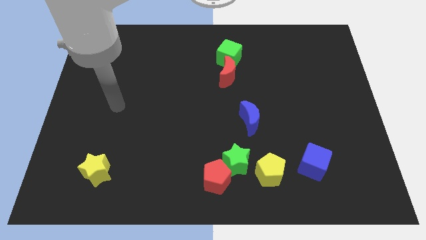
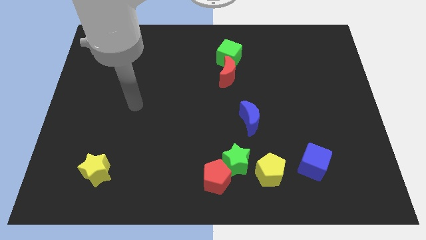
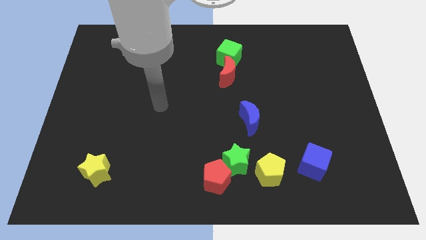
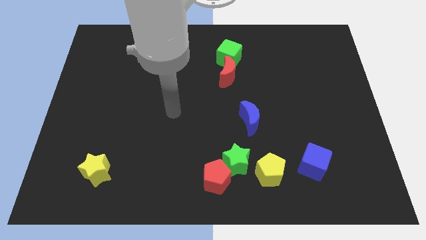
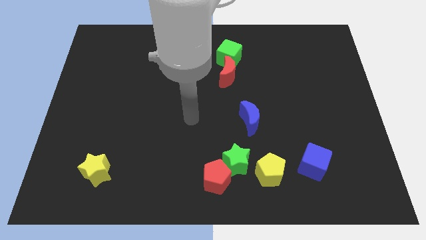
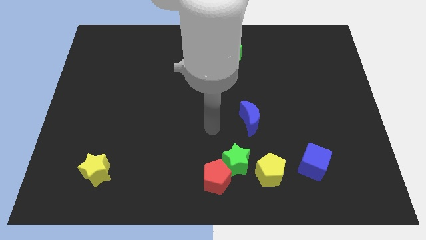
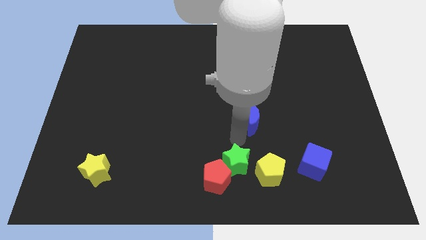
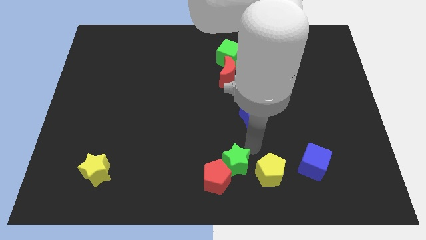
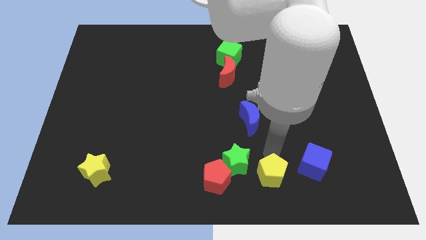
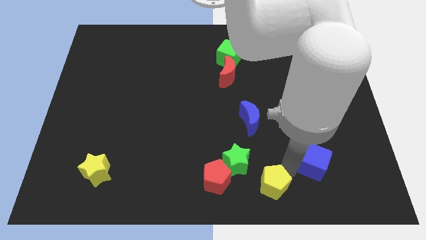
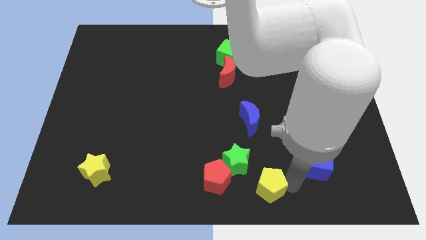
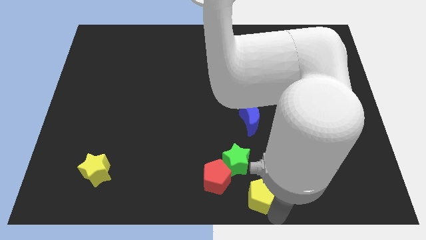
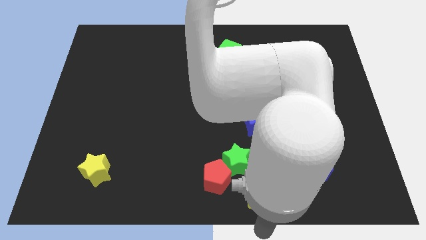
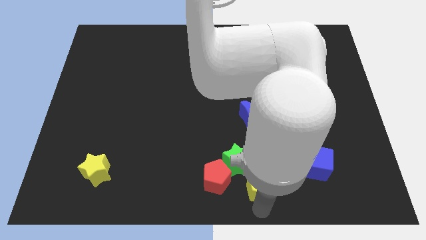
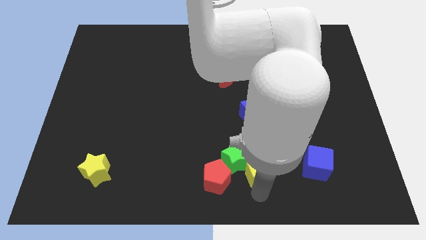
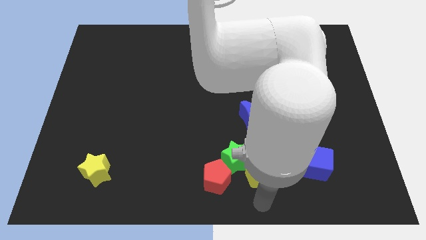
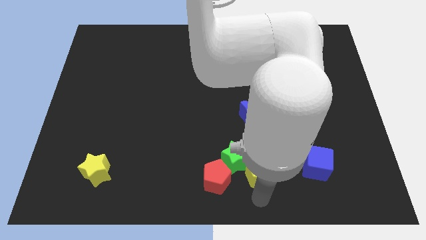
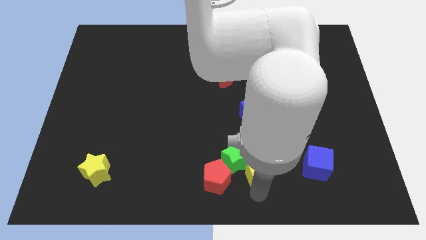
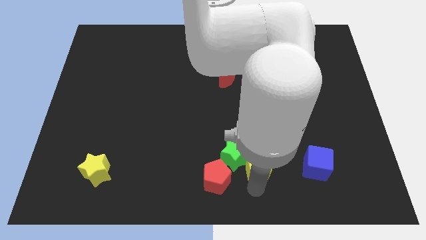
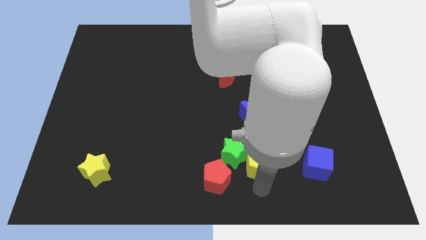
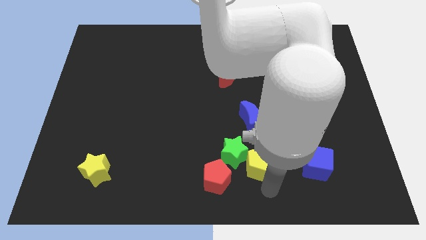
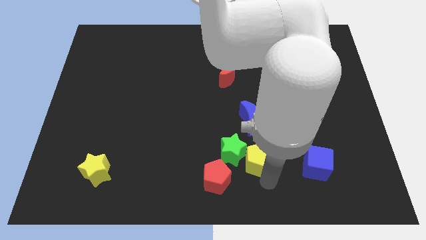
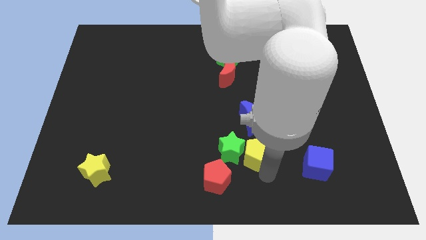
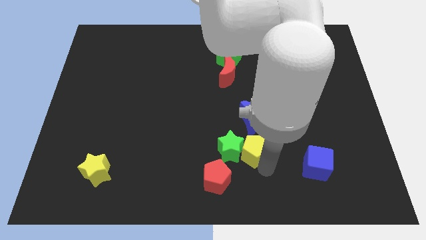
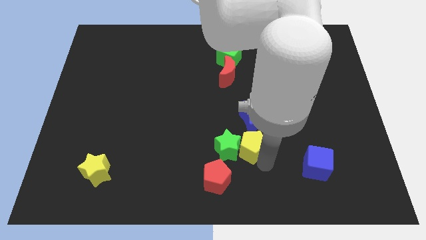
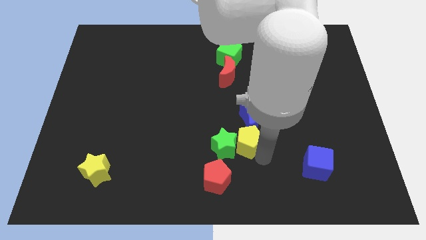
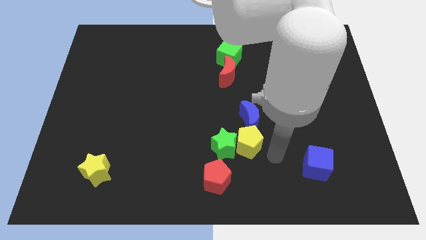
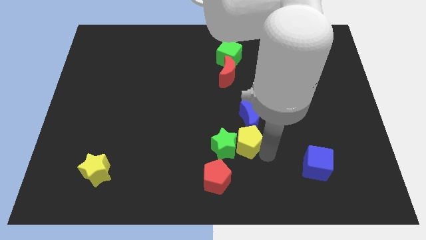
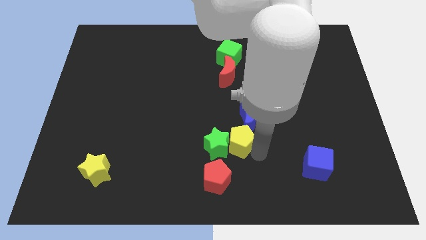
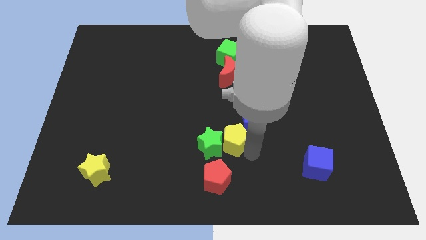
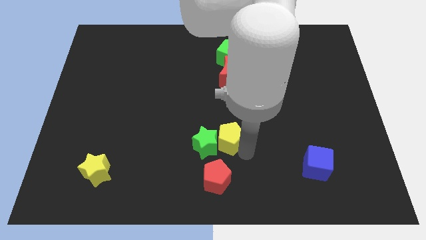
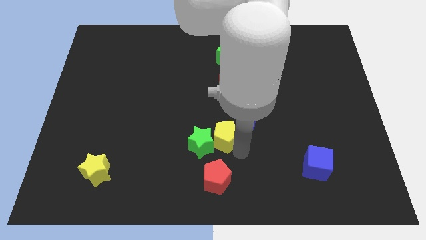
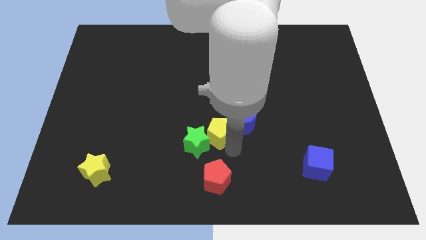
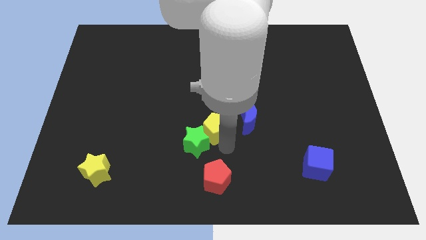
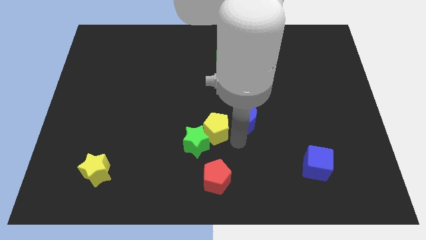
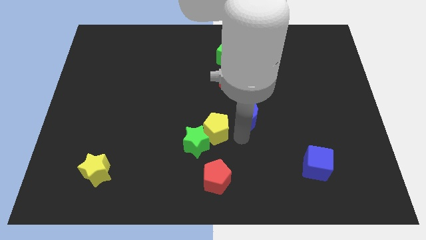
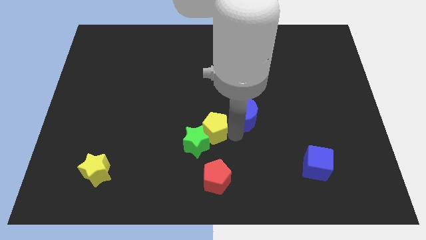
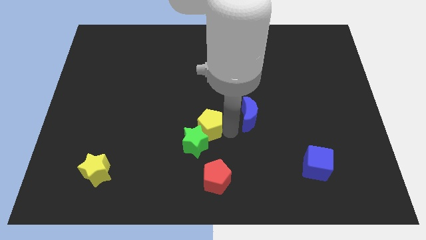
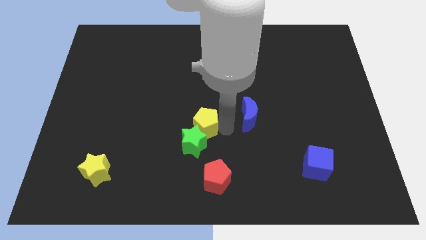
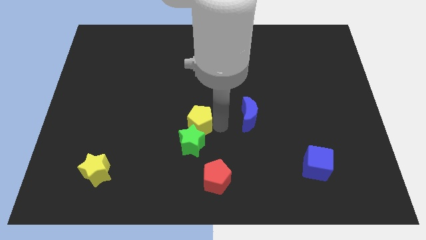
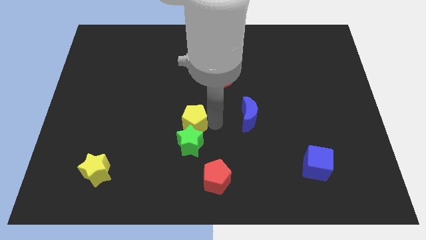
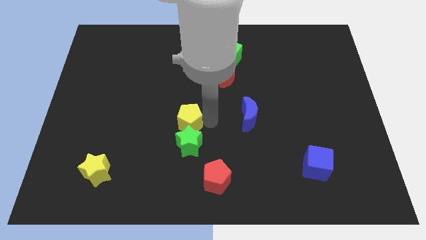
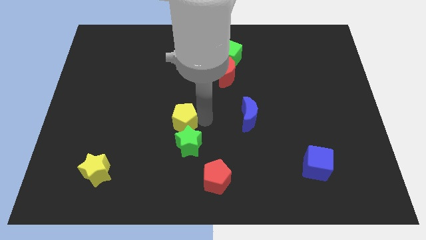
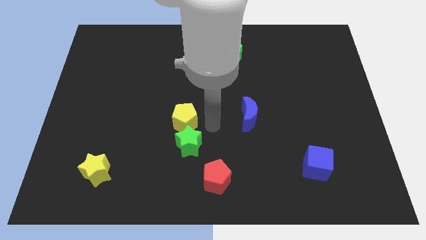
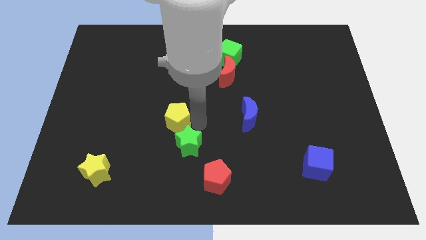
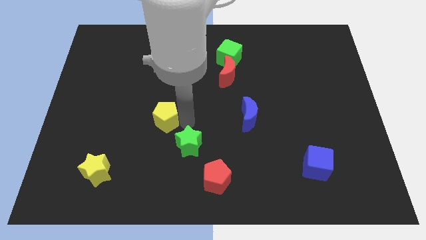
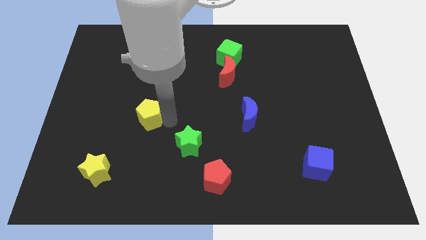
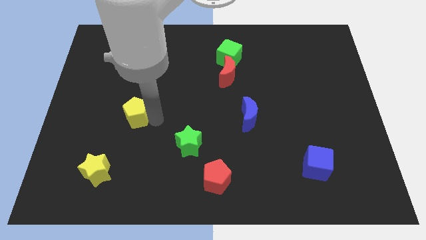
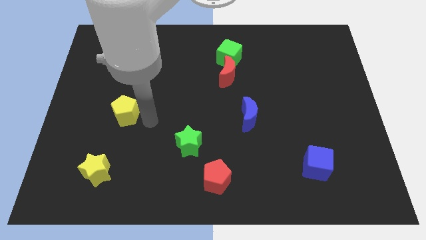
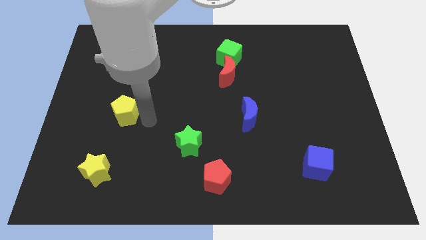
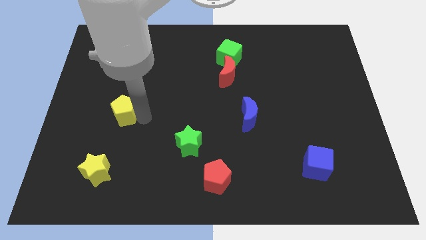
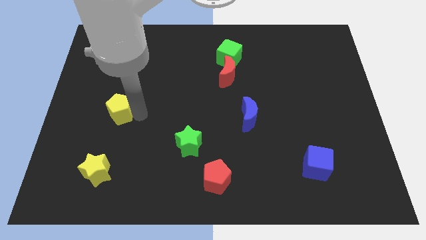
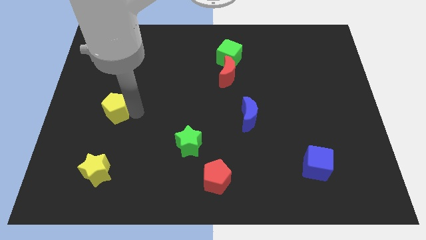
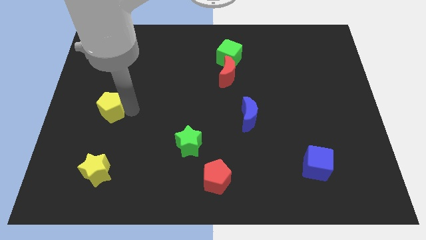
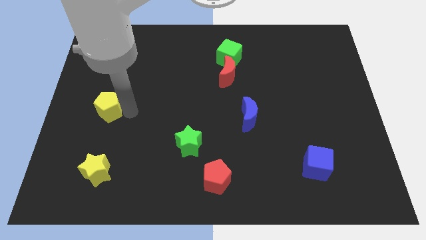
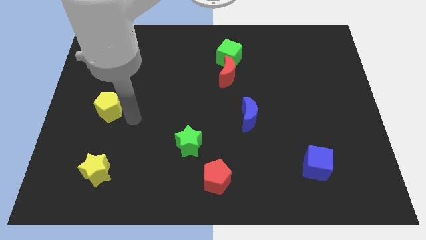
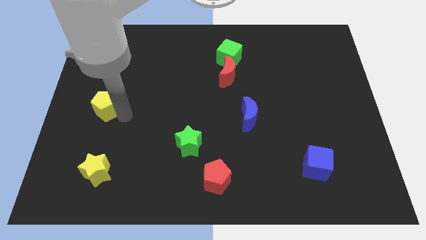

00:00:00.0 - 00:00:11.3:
move the yellow pentagon to the center left
